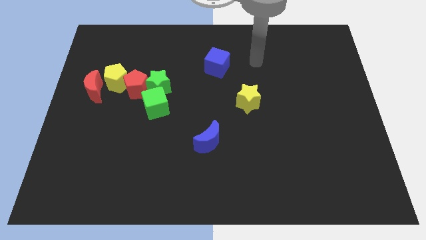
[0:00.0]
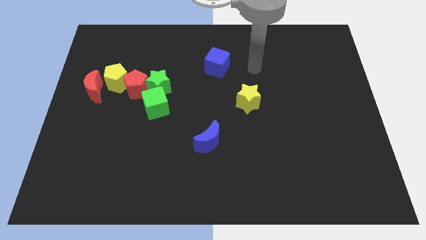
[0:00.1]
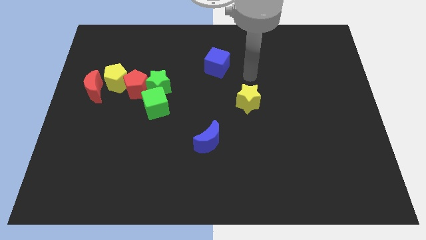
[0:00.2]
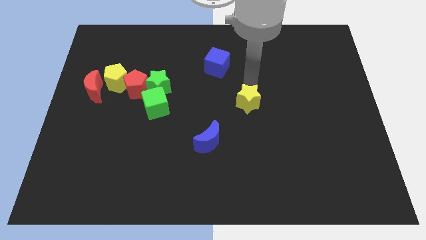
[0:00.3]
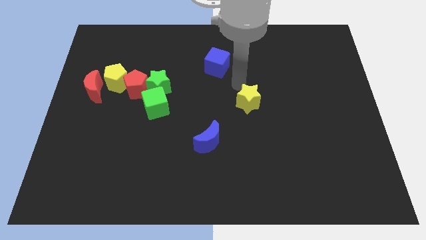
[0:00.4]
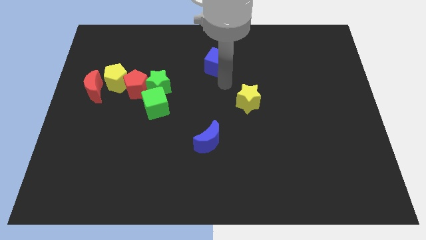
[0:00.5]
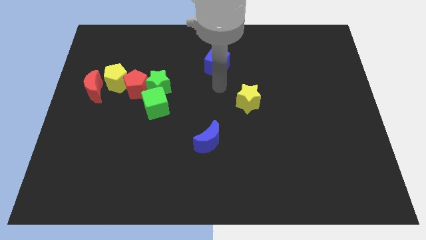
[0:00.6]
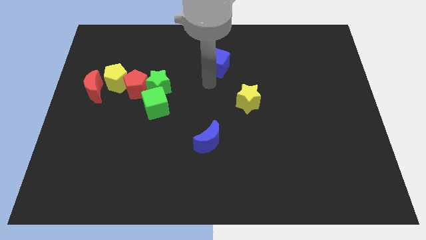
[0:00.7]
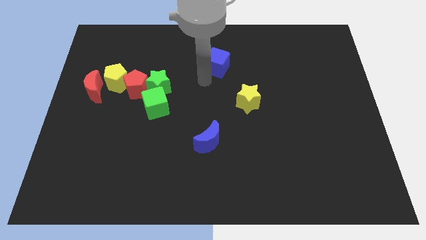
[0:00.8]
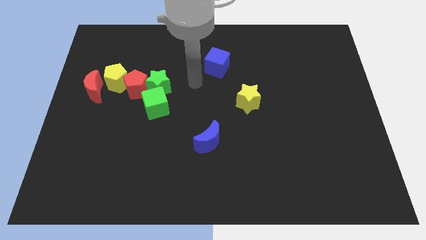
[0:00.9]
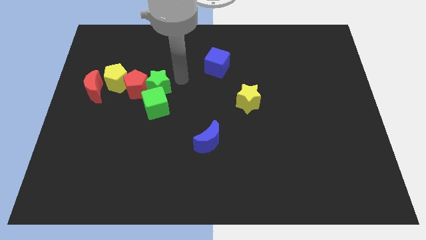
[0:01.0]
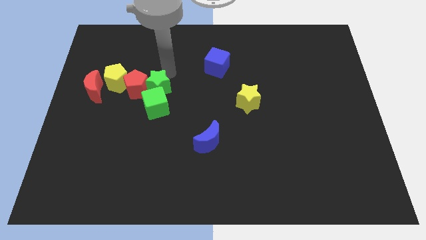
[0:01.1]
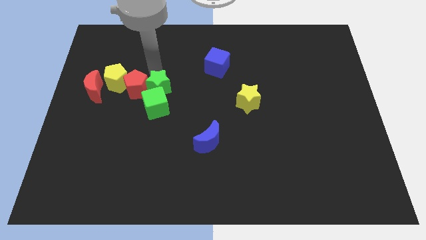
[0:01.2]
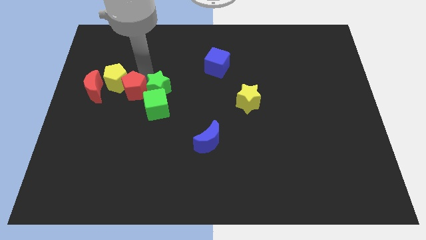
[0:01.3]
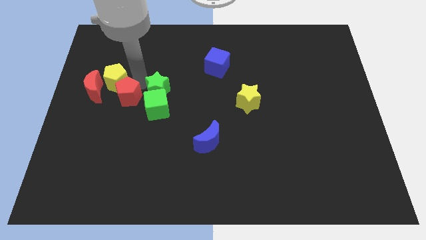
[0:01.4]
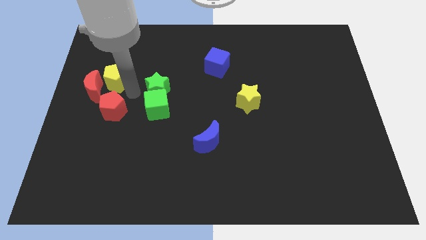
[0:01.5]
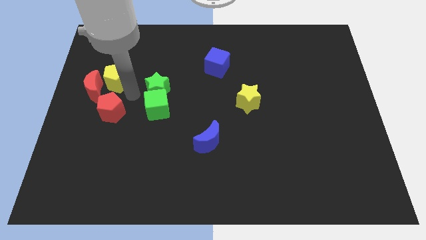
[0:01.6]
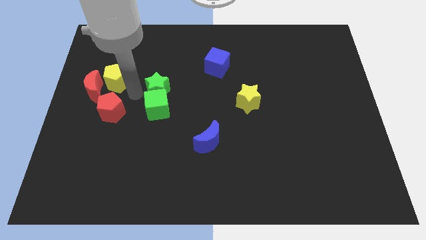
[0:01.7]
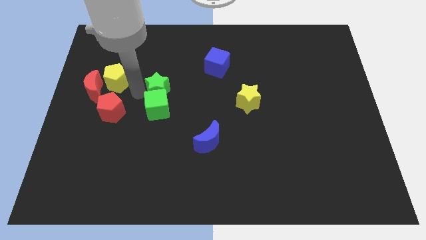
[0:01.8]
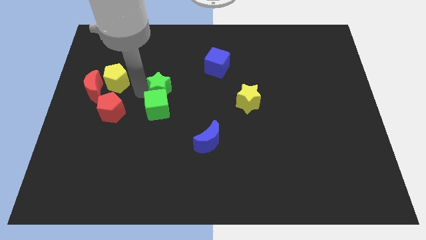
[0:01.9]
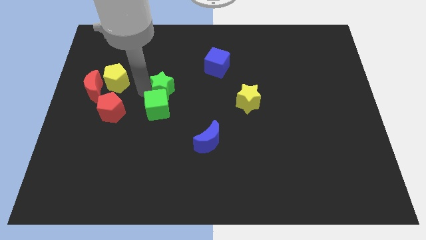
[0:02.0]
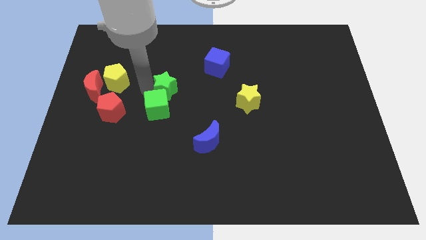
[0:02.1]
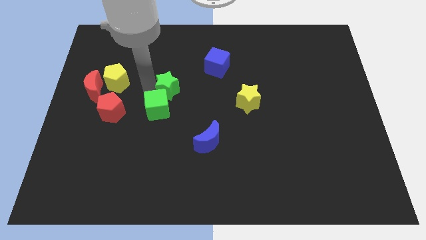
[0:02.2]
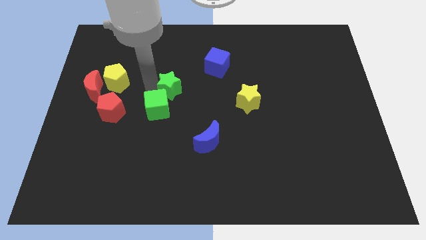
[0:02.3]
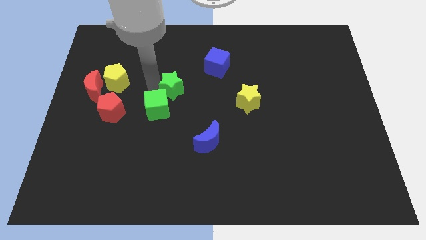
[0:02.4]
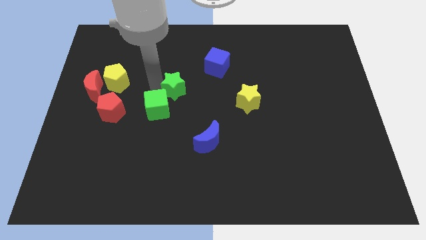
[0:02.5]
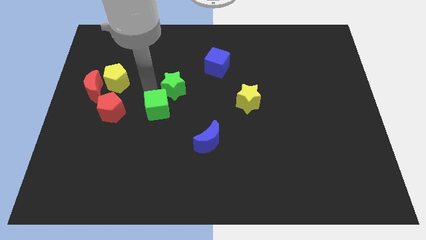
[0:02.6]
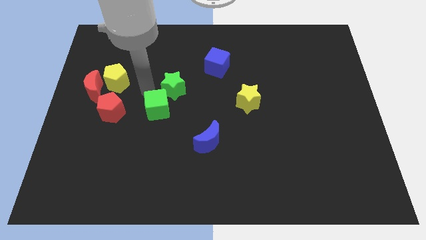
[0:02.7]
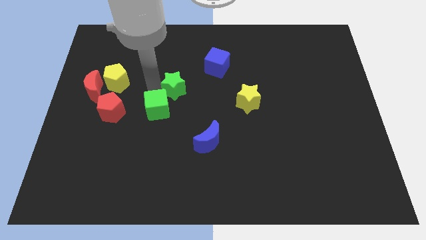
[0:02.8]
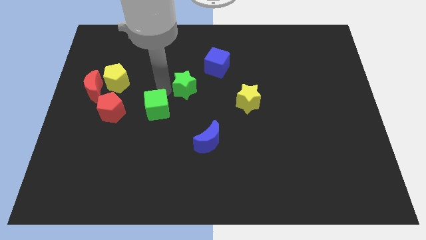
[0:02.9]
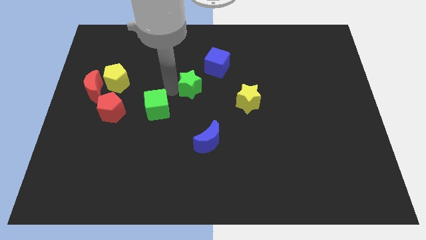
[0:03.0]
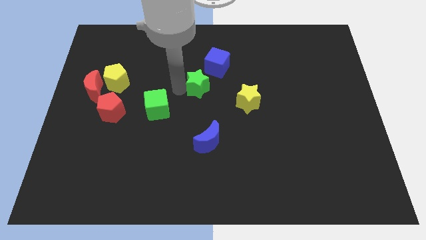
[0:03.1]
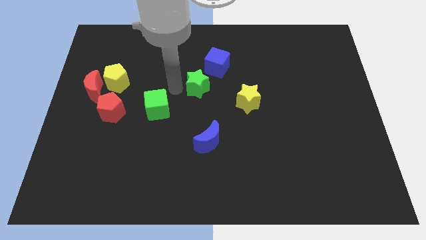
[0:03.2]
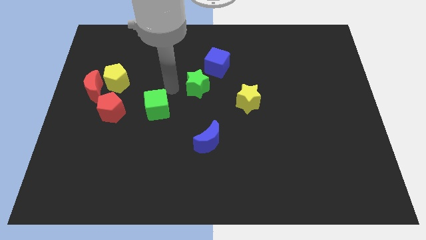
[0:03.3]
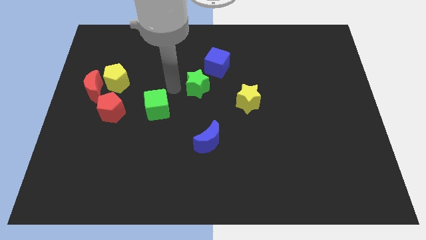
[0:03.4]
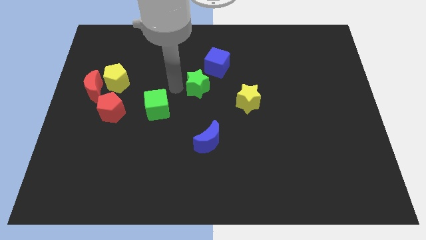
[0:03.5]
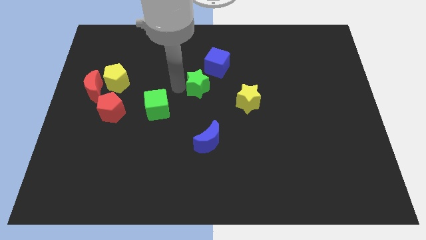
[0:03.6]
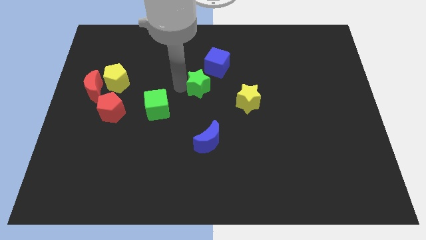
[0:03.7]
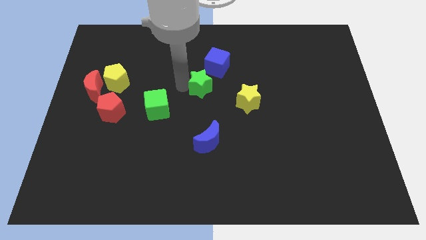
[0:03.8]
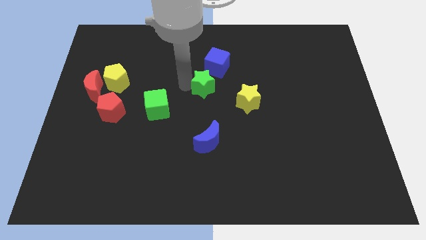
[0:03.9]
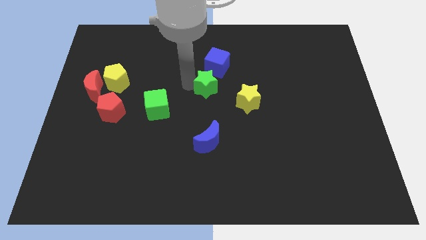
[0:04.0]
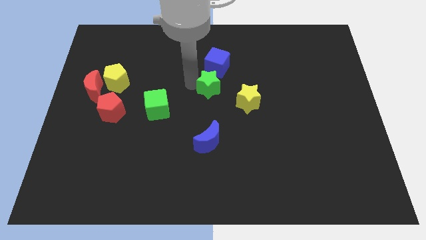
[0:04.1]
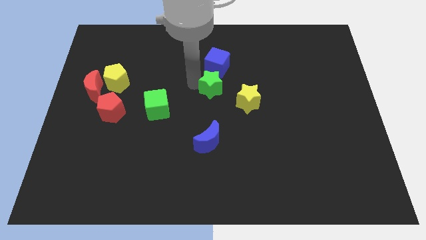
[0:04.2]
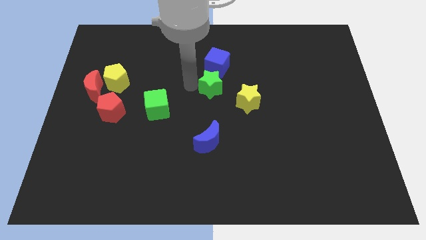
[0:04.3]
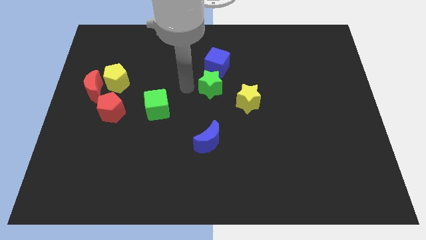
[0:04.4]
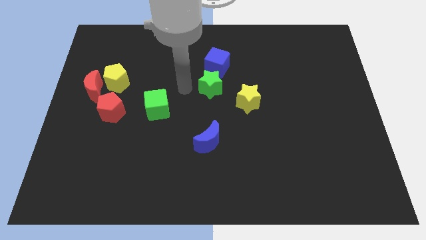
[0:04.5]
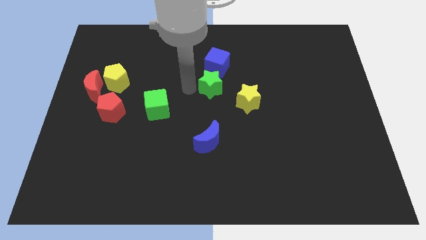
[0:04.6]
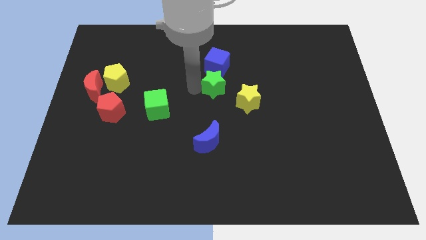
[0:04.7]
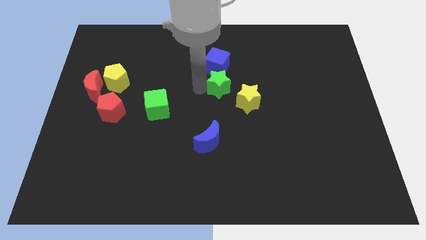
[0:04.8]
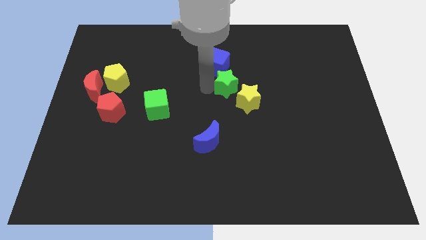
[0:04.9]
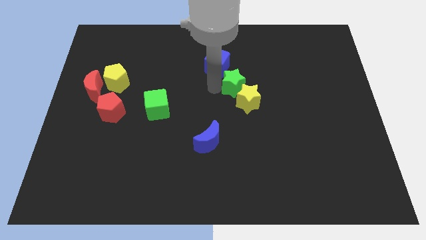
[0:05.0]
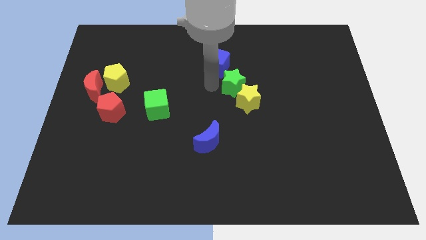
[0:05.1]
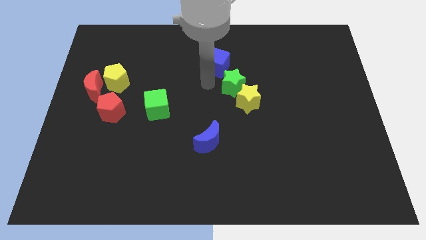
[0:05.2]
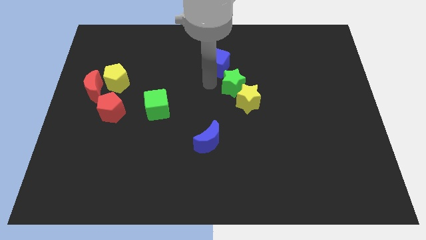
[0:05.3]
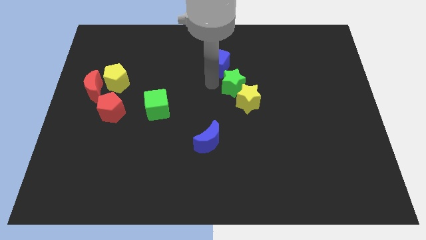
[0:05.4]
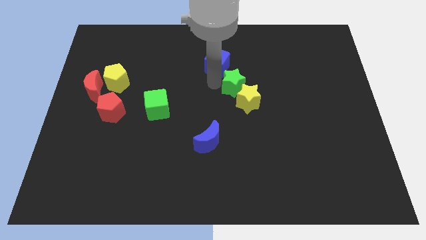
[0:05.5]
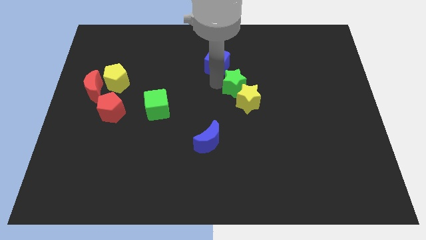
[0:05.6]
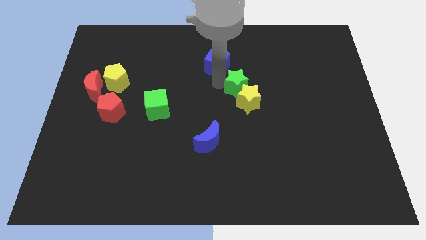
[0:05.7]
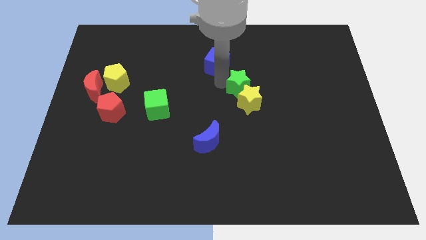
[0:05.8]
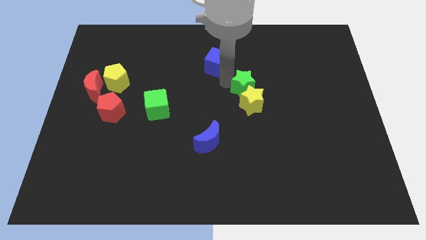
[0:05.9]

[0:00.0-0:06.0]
move the green star to the right

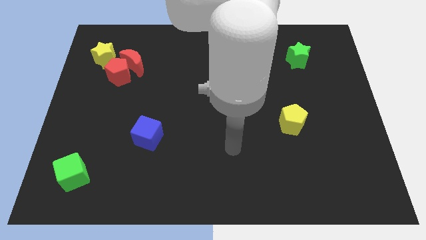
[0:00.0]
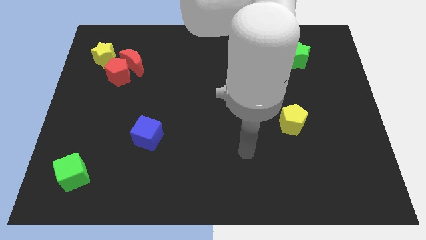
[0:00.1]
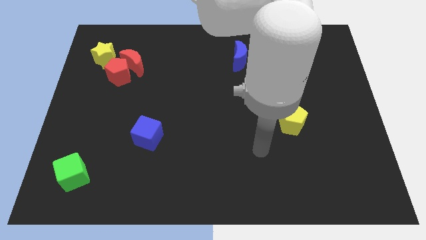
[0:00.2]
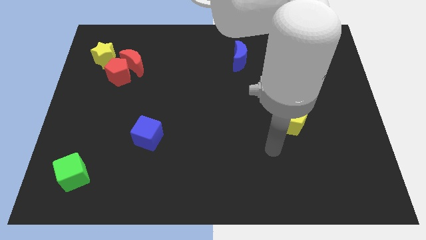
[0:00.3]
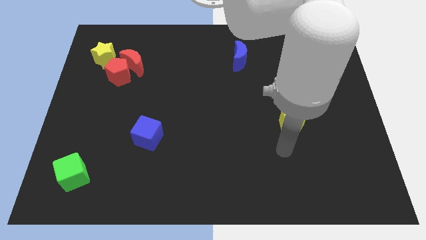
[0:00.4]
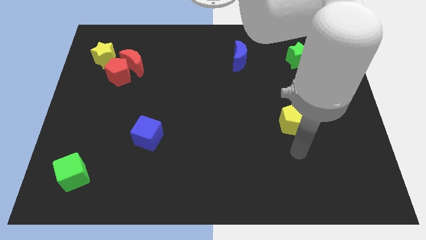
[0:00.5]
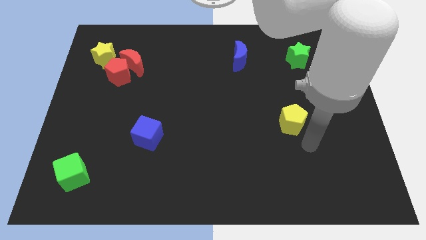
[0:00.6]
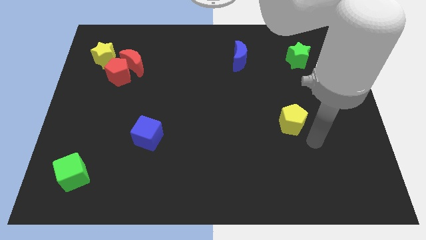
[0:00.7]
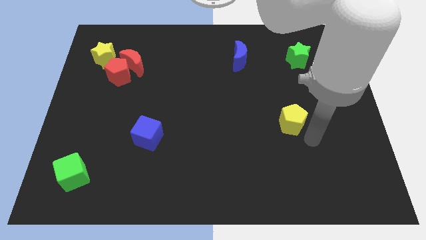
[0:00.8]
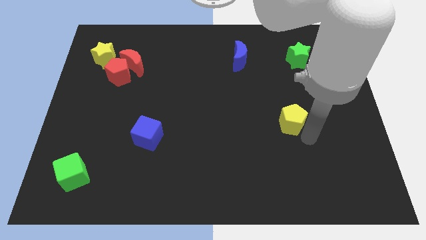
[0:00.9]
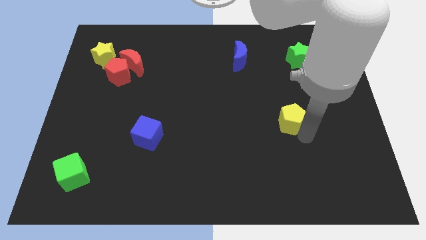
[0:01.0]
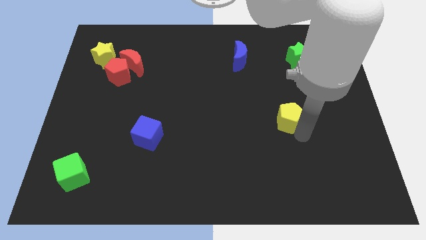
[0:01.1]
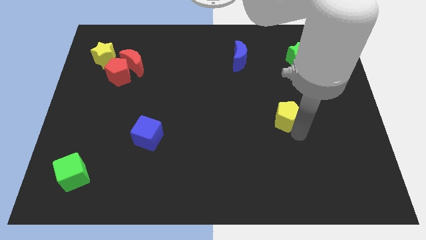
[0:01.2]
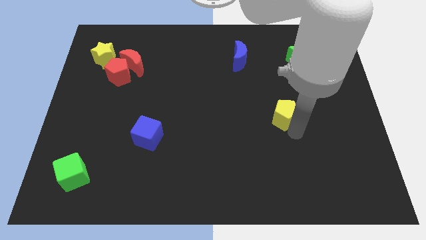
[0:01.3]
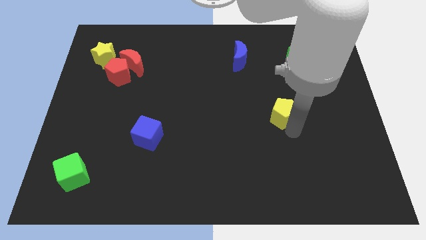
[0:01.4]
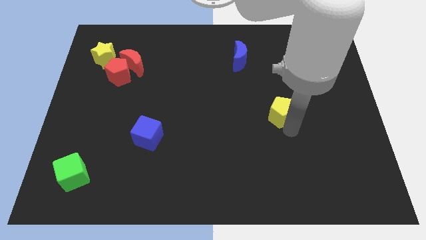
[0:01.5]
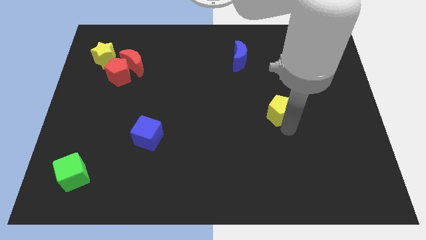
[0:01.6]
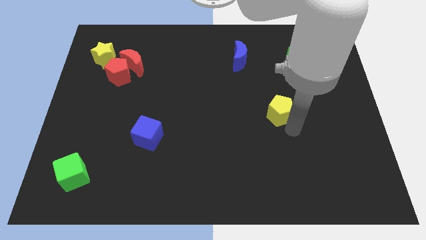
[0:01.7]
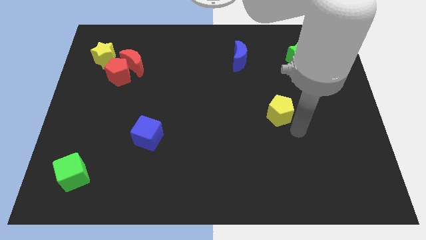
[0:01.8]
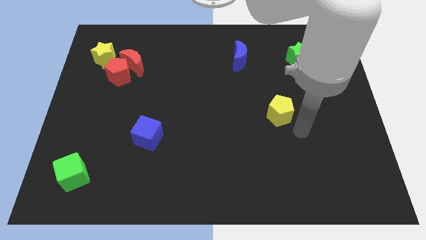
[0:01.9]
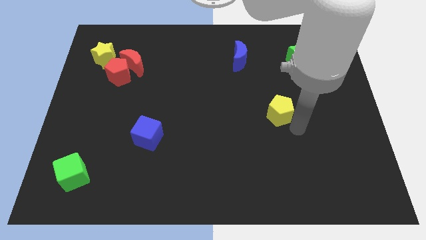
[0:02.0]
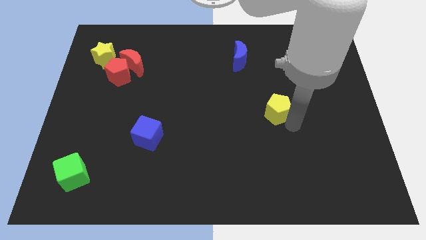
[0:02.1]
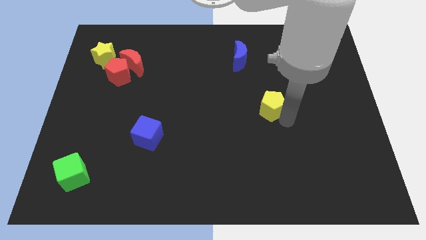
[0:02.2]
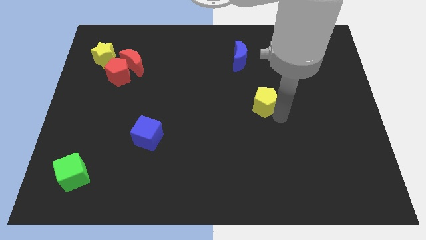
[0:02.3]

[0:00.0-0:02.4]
slide the yellow pentagon up and then to the left slightly
